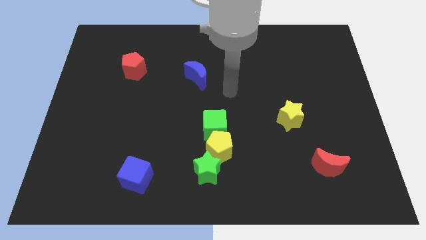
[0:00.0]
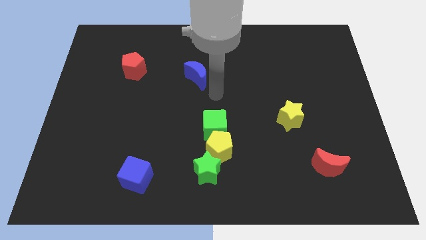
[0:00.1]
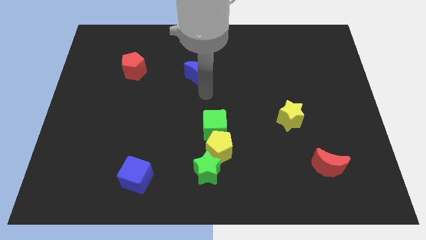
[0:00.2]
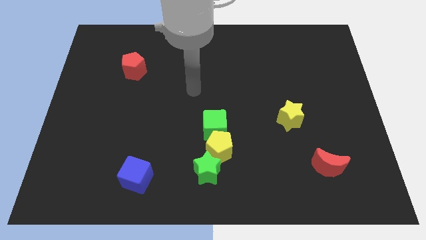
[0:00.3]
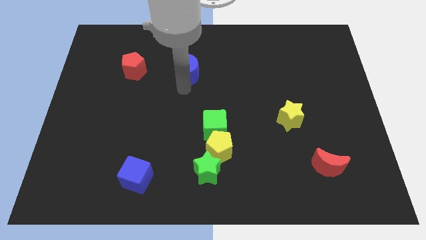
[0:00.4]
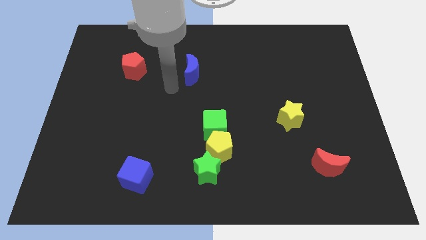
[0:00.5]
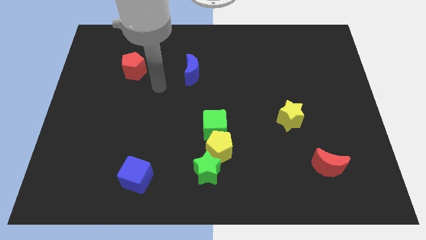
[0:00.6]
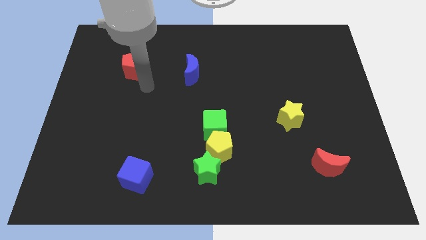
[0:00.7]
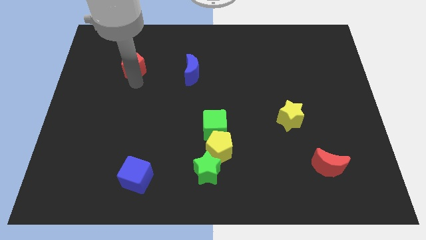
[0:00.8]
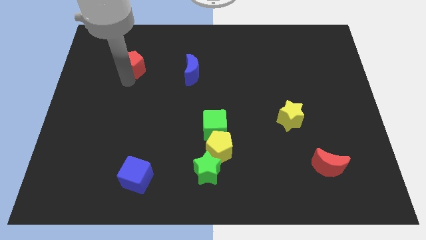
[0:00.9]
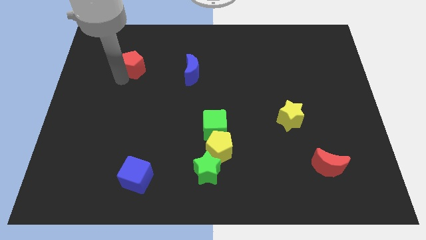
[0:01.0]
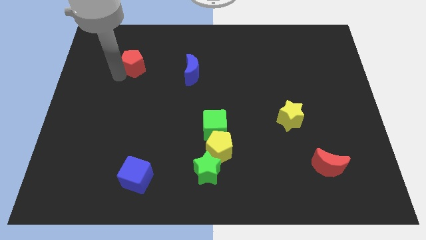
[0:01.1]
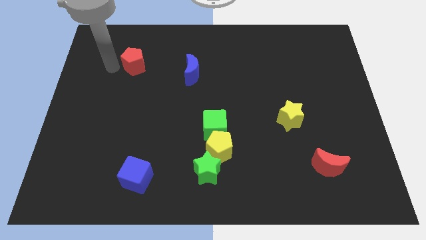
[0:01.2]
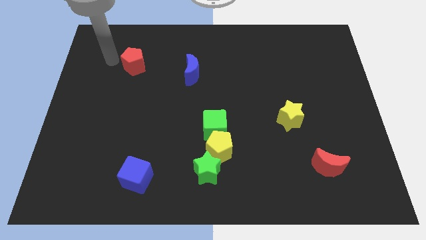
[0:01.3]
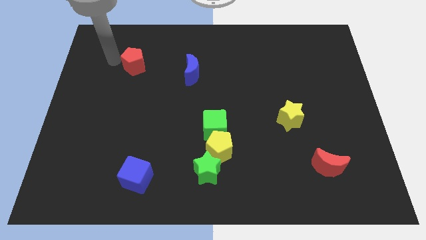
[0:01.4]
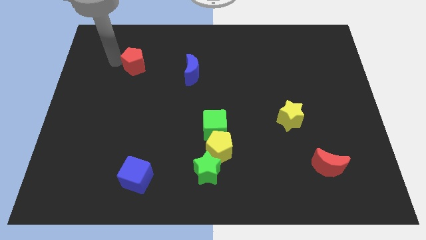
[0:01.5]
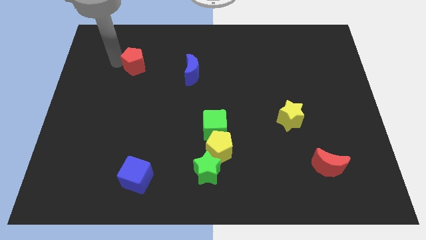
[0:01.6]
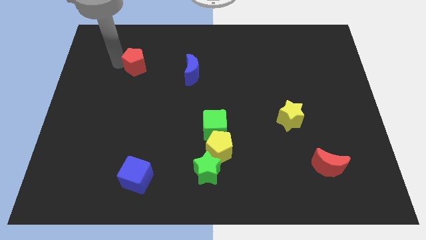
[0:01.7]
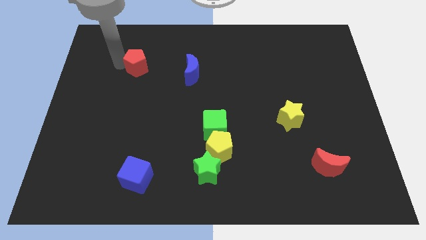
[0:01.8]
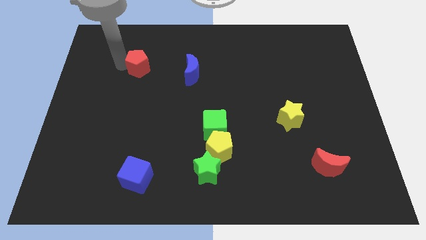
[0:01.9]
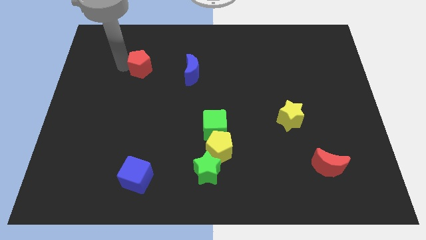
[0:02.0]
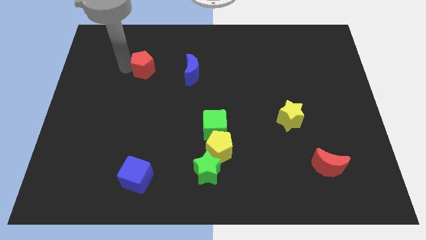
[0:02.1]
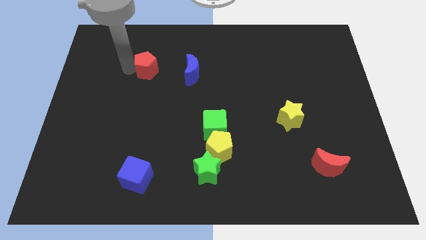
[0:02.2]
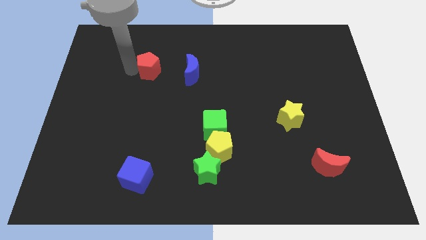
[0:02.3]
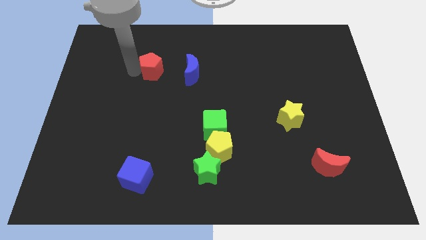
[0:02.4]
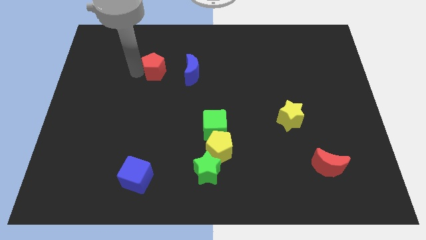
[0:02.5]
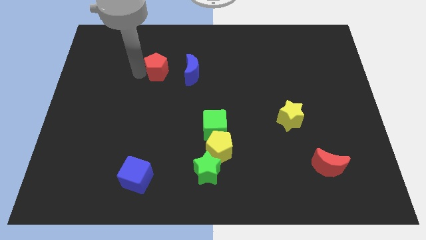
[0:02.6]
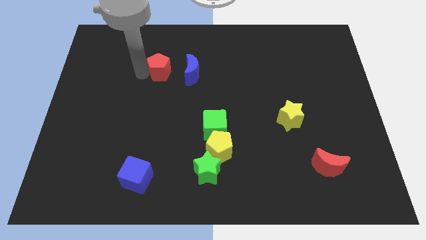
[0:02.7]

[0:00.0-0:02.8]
push the red pentagon a bit right

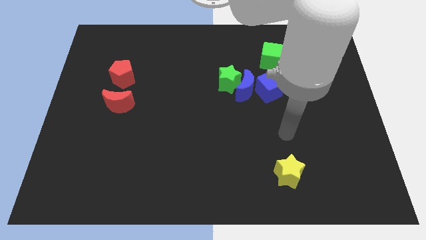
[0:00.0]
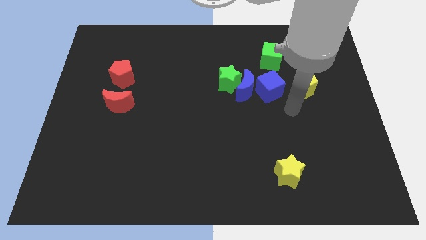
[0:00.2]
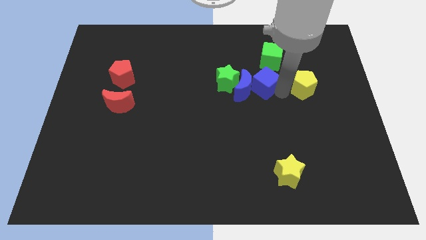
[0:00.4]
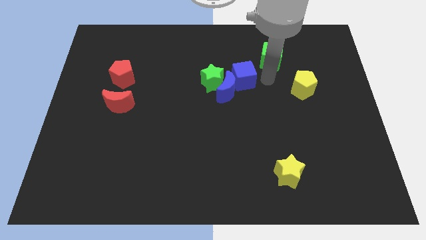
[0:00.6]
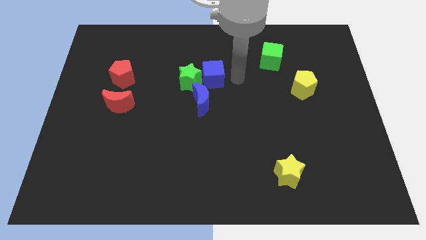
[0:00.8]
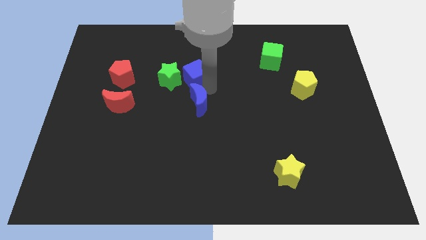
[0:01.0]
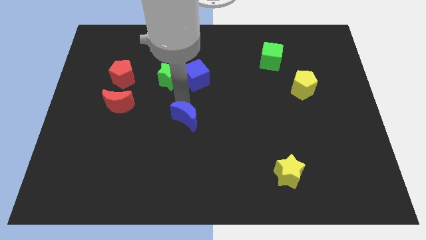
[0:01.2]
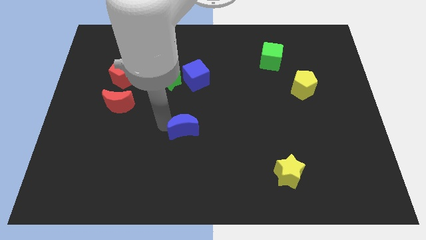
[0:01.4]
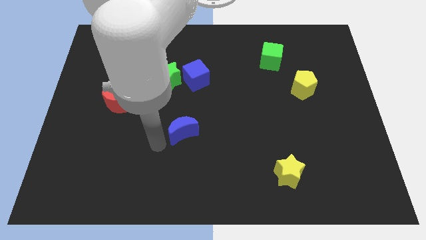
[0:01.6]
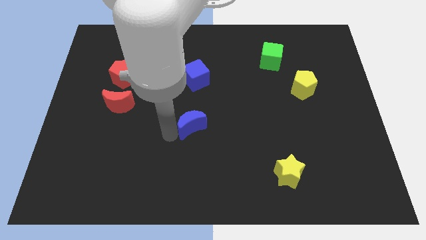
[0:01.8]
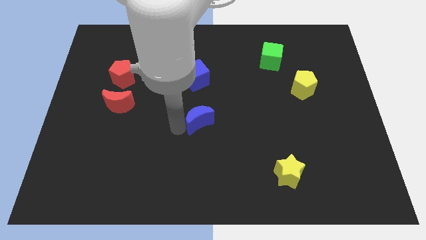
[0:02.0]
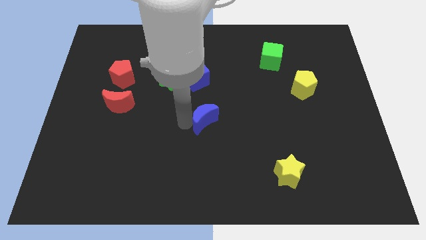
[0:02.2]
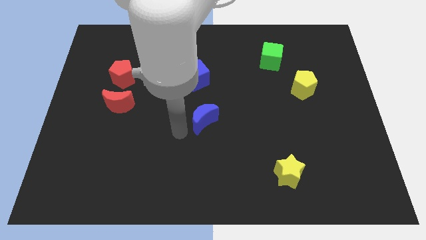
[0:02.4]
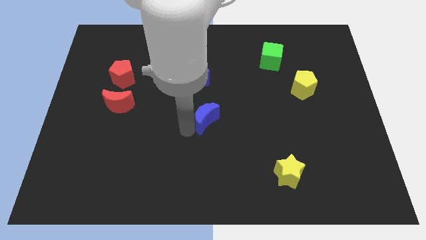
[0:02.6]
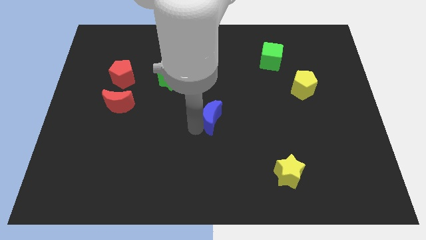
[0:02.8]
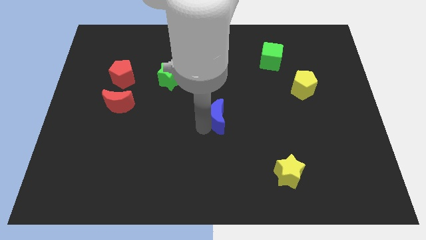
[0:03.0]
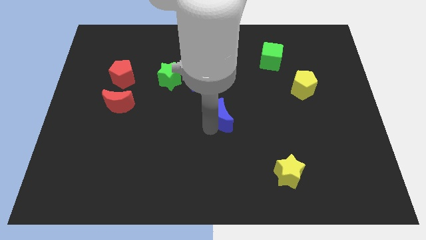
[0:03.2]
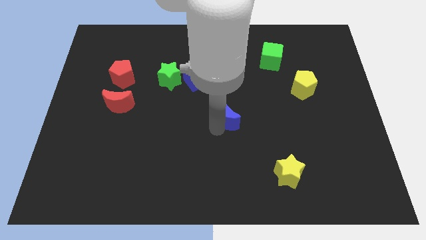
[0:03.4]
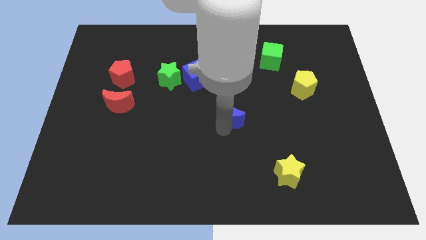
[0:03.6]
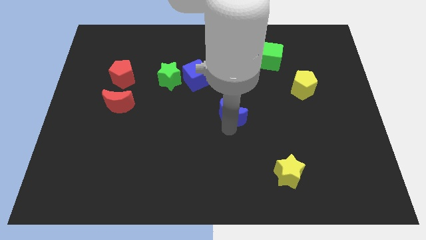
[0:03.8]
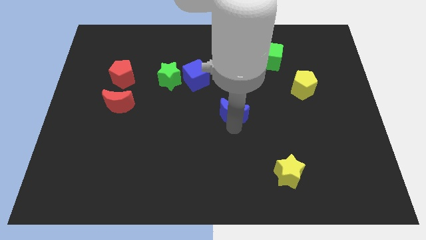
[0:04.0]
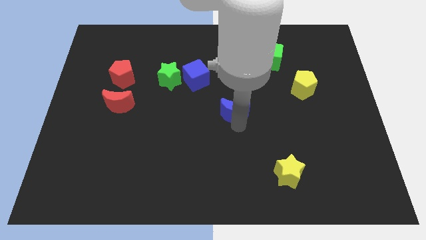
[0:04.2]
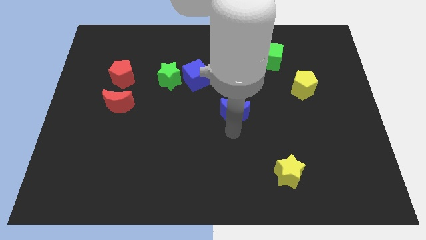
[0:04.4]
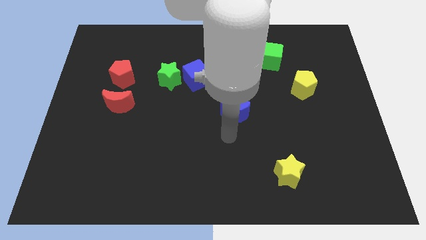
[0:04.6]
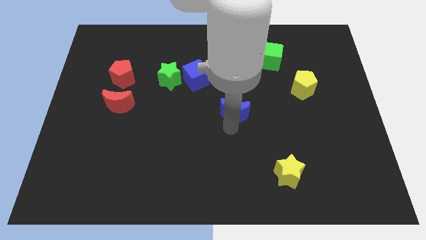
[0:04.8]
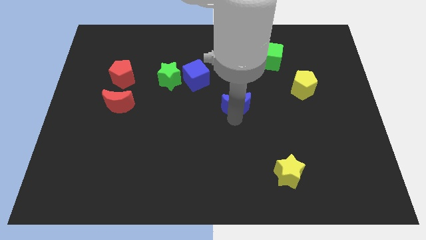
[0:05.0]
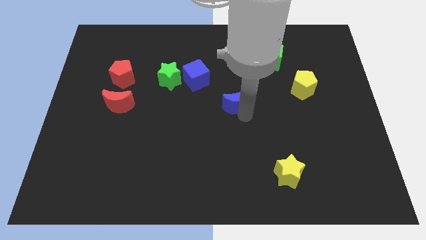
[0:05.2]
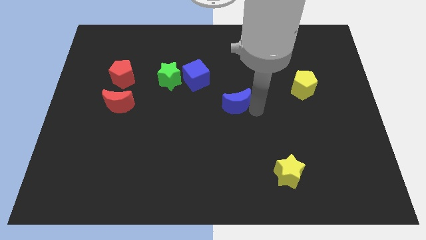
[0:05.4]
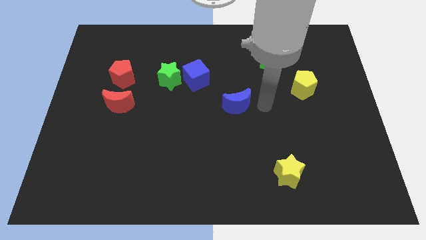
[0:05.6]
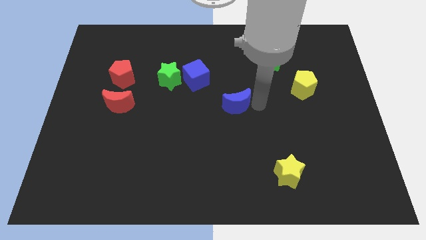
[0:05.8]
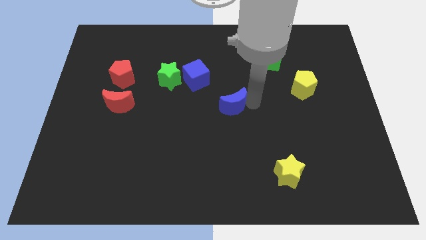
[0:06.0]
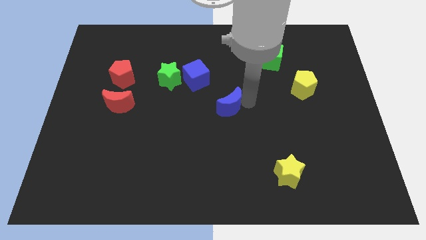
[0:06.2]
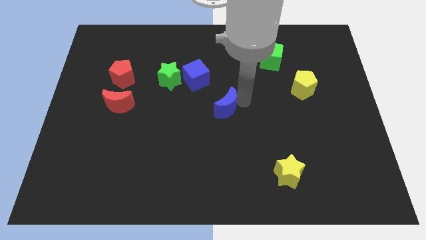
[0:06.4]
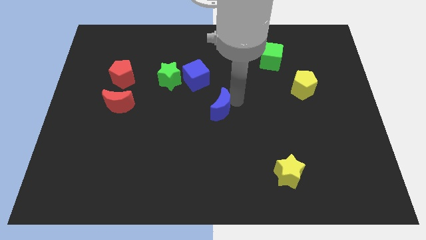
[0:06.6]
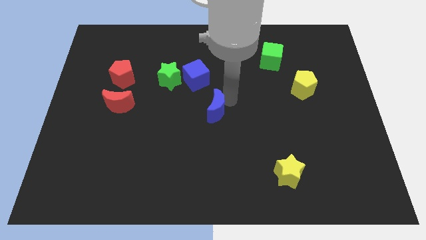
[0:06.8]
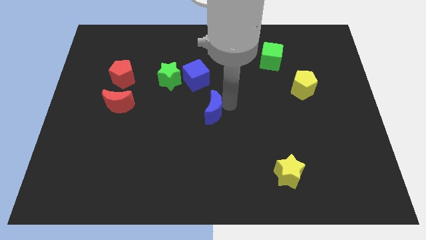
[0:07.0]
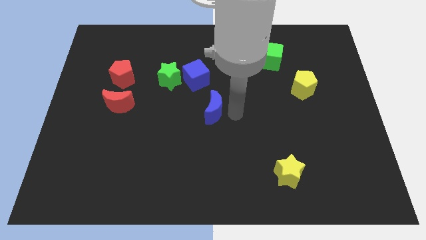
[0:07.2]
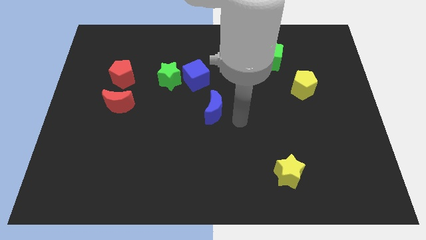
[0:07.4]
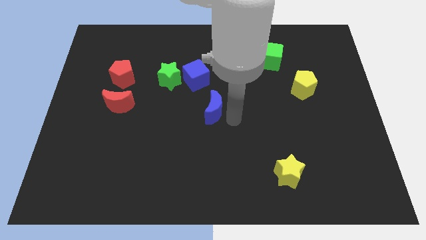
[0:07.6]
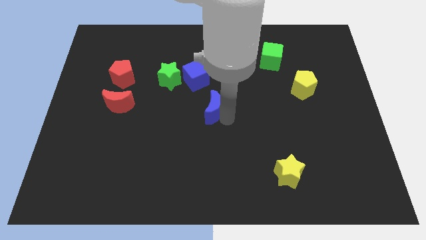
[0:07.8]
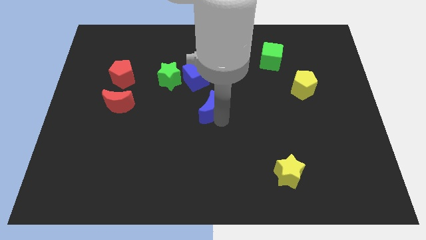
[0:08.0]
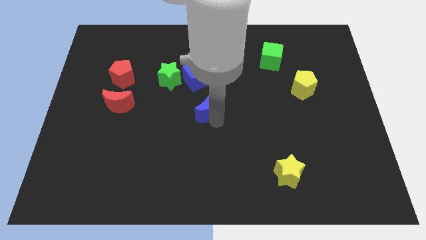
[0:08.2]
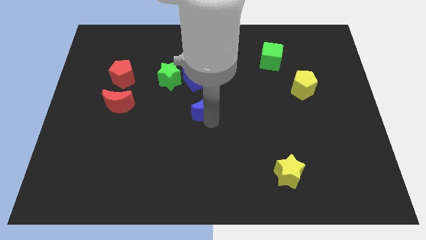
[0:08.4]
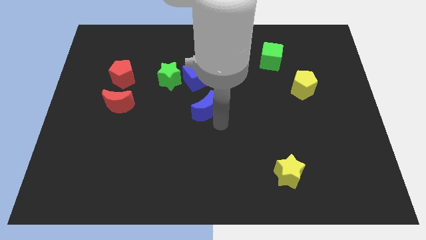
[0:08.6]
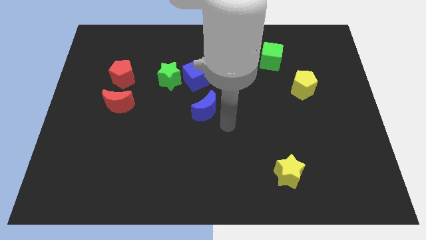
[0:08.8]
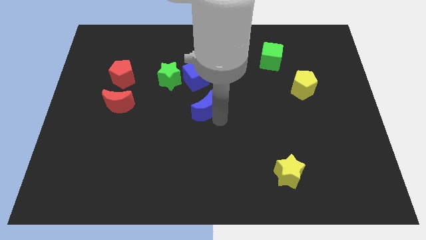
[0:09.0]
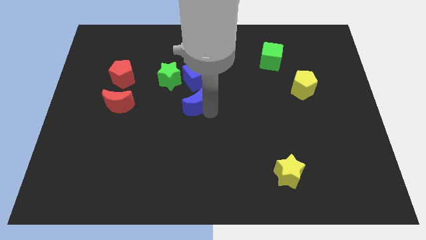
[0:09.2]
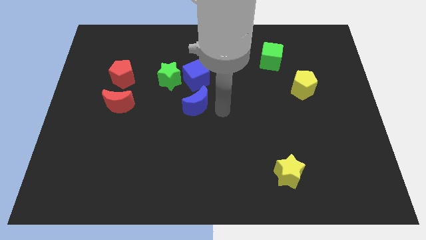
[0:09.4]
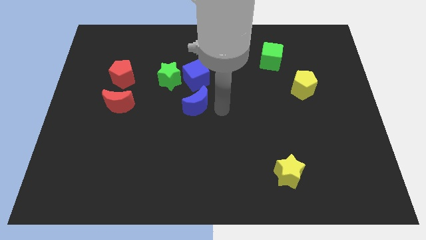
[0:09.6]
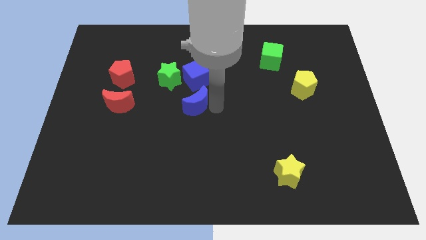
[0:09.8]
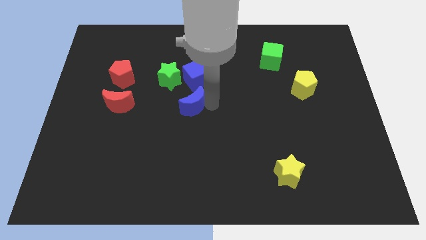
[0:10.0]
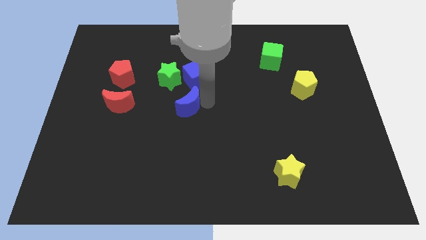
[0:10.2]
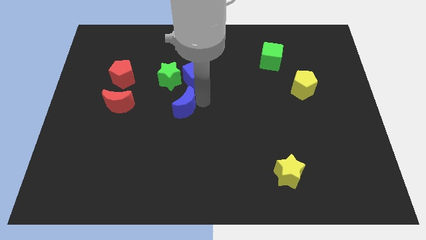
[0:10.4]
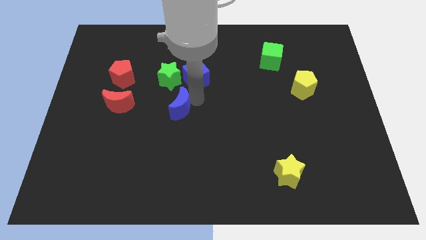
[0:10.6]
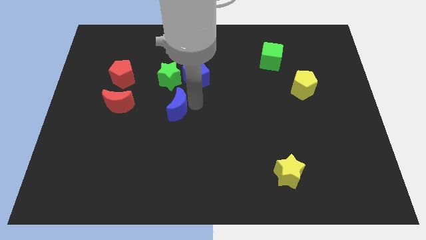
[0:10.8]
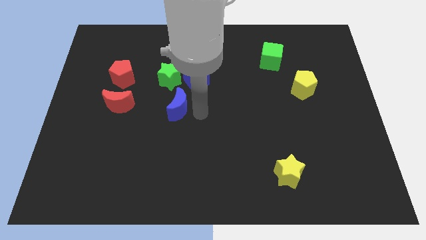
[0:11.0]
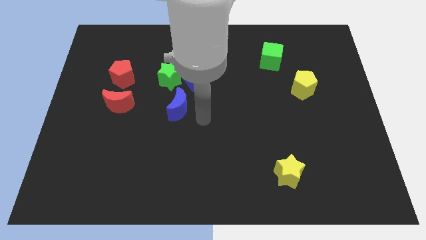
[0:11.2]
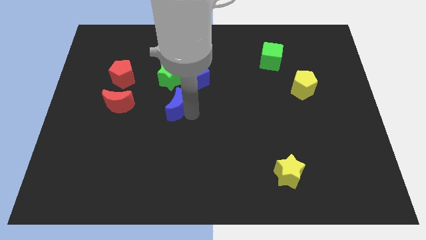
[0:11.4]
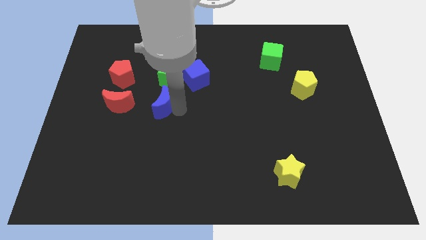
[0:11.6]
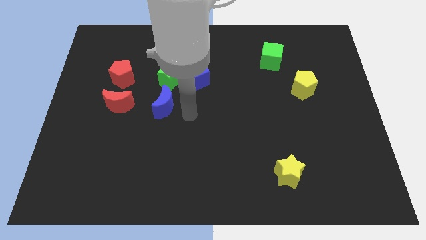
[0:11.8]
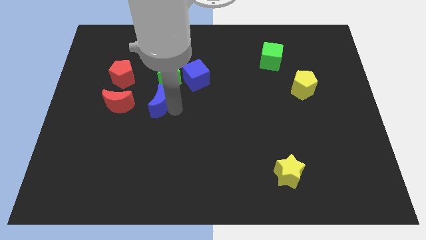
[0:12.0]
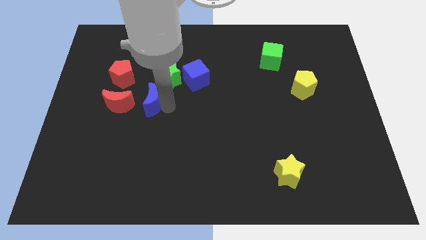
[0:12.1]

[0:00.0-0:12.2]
push the blue moon left
